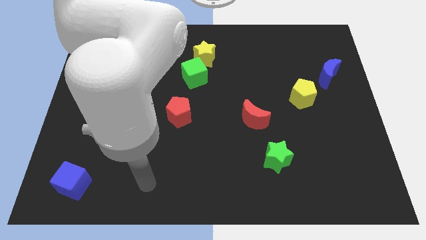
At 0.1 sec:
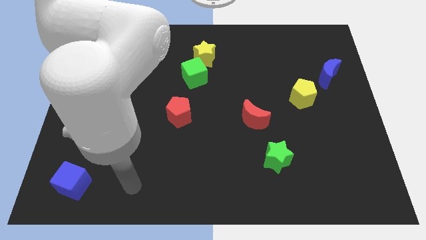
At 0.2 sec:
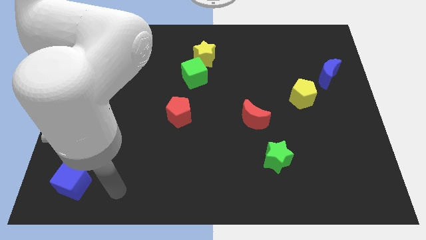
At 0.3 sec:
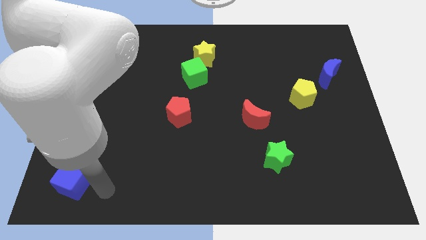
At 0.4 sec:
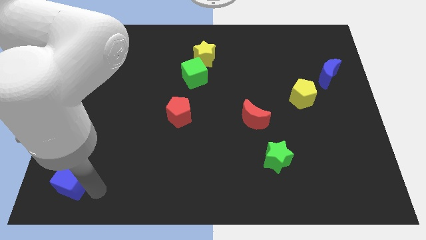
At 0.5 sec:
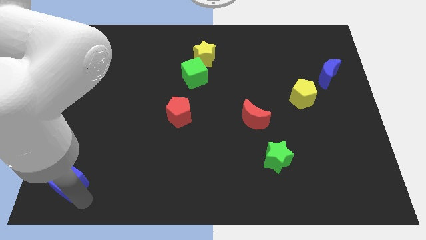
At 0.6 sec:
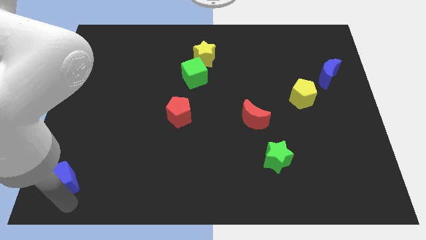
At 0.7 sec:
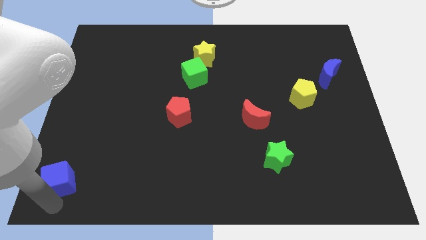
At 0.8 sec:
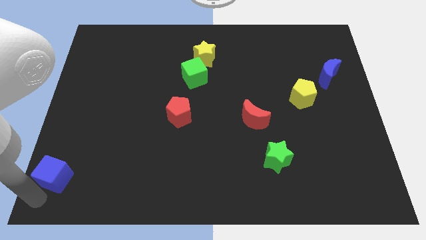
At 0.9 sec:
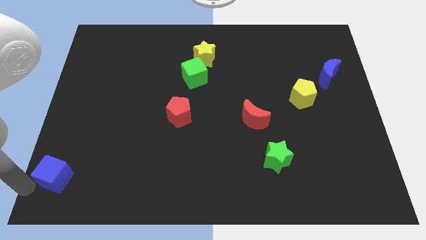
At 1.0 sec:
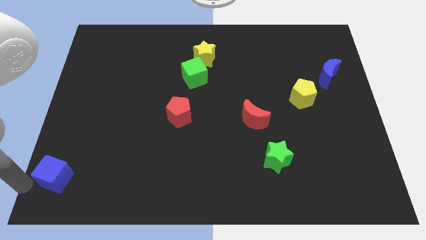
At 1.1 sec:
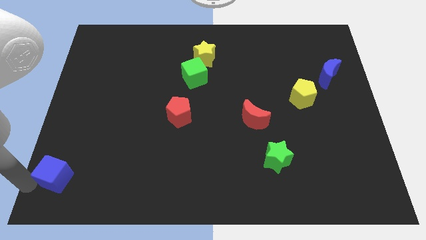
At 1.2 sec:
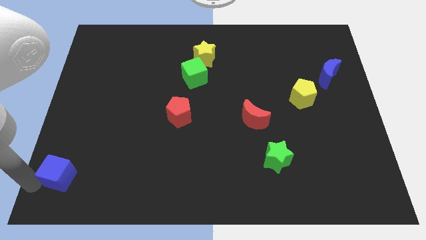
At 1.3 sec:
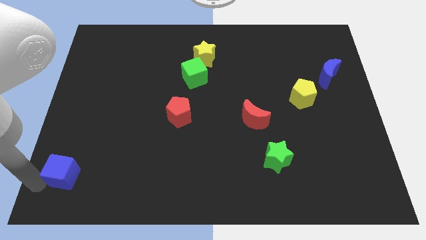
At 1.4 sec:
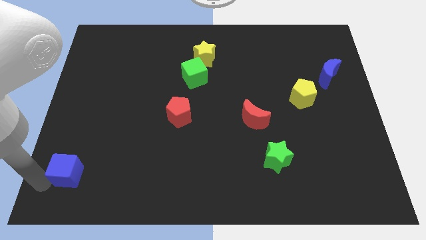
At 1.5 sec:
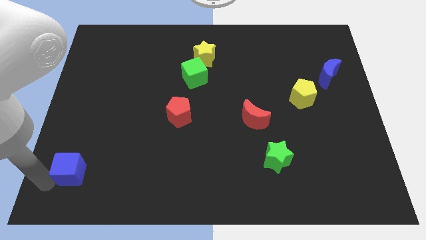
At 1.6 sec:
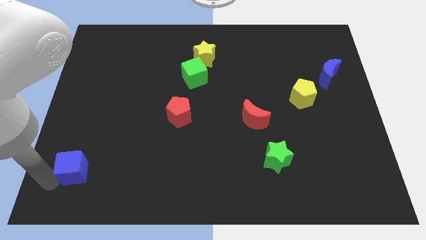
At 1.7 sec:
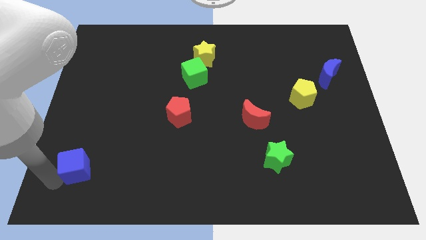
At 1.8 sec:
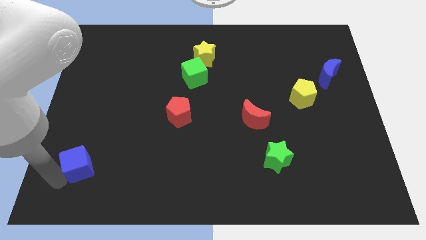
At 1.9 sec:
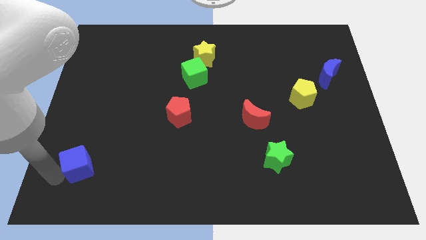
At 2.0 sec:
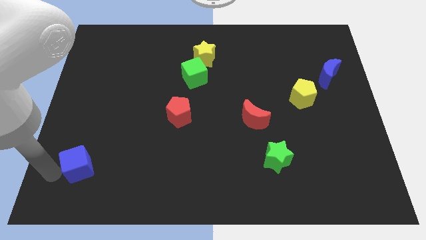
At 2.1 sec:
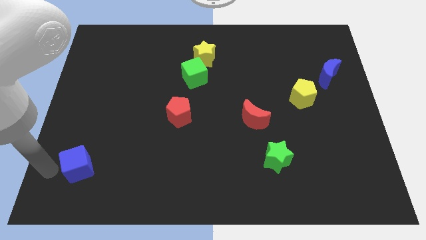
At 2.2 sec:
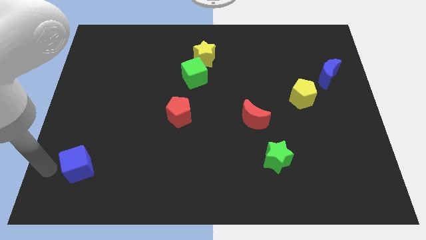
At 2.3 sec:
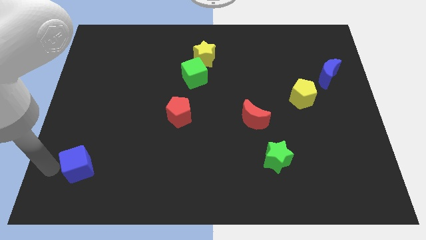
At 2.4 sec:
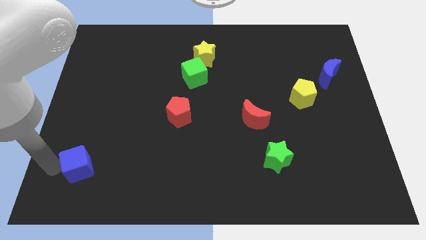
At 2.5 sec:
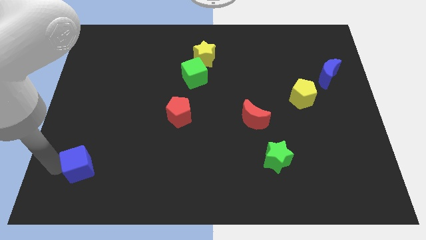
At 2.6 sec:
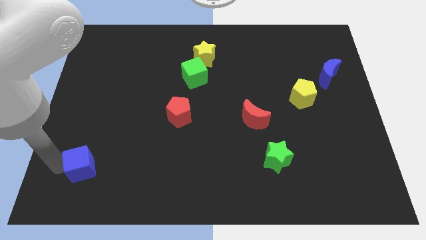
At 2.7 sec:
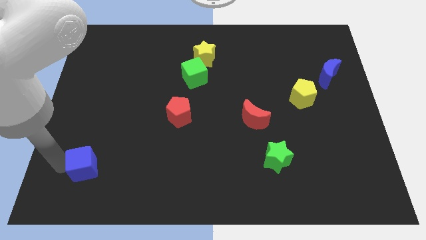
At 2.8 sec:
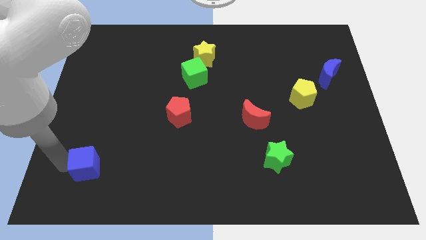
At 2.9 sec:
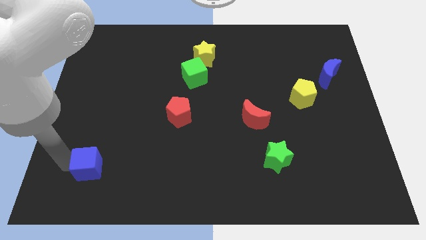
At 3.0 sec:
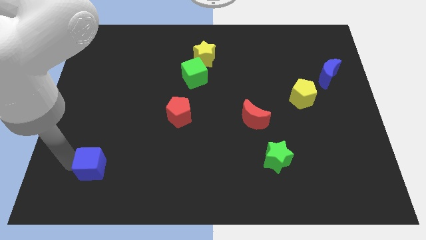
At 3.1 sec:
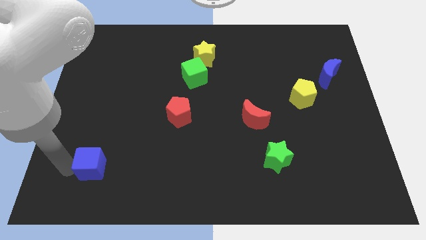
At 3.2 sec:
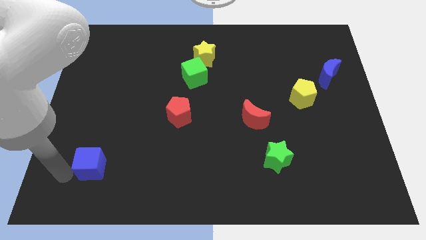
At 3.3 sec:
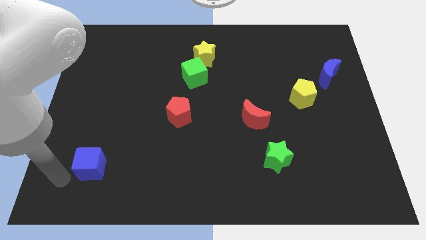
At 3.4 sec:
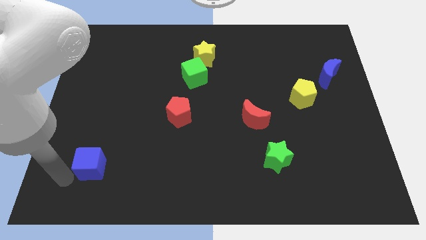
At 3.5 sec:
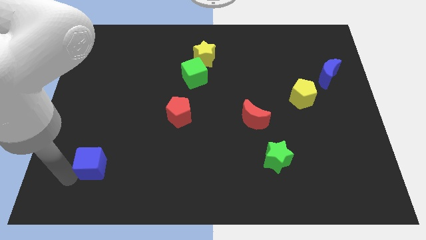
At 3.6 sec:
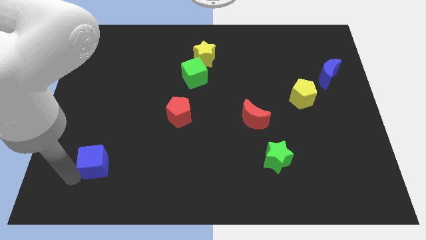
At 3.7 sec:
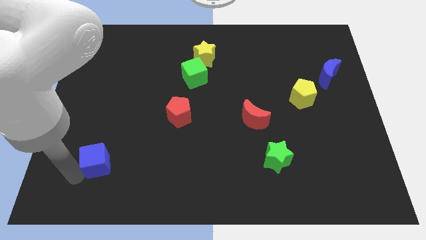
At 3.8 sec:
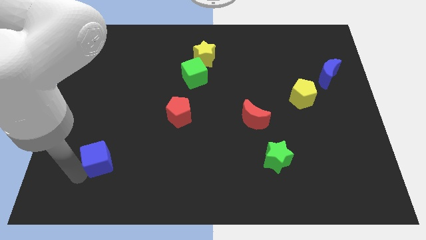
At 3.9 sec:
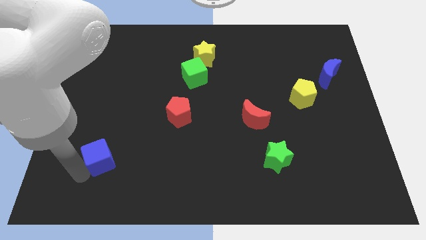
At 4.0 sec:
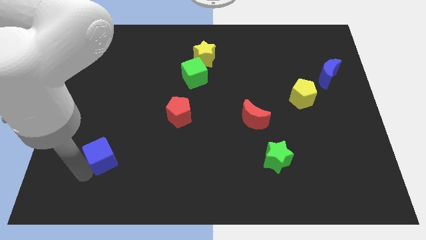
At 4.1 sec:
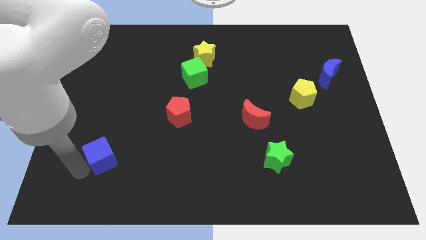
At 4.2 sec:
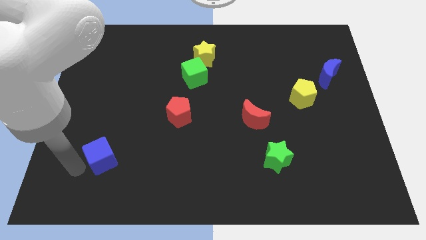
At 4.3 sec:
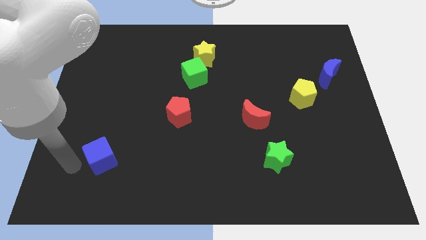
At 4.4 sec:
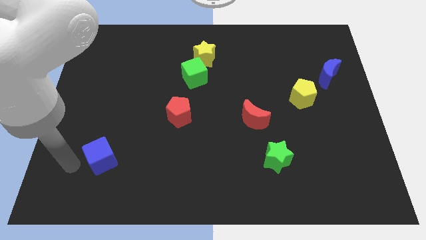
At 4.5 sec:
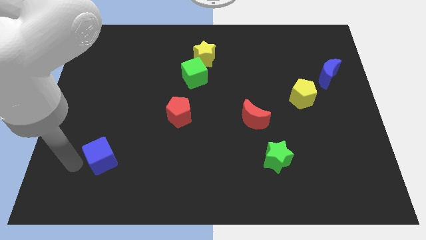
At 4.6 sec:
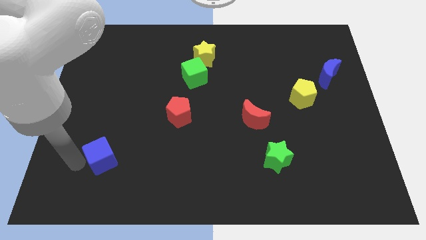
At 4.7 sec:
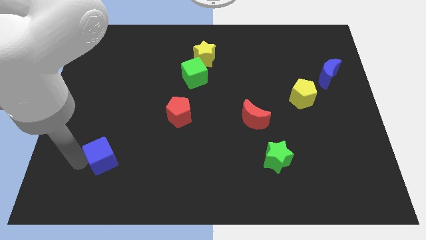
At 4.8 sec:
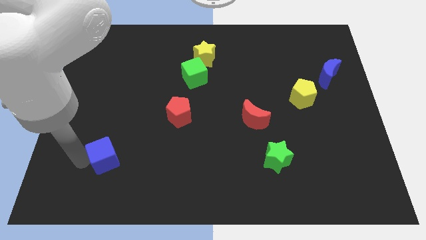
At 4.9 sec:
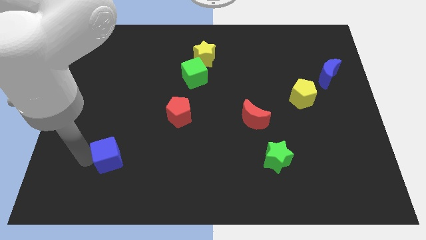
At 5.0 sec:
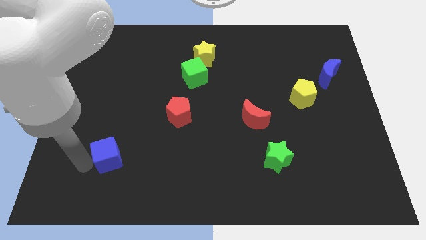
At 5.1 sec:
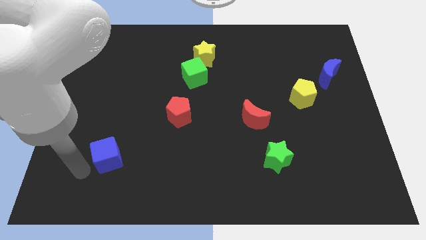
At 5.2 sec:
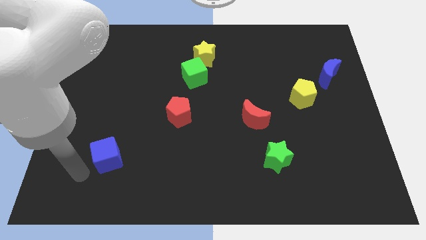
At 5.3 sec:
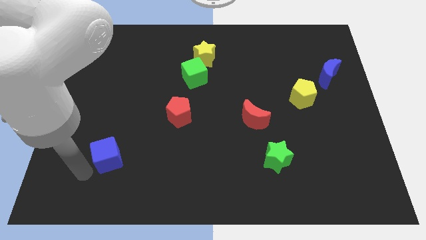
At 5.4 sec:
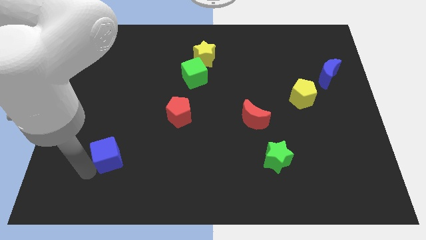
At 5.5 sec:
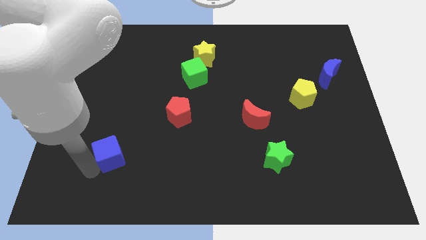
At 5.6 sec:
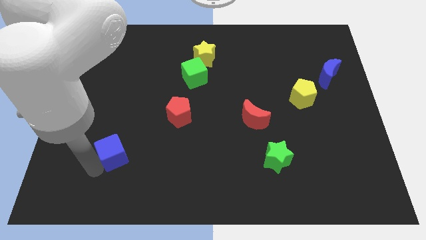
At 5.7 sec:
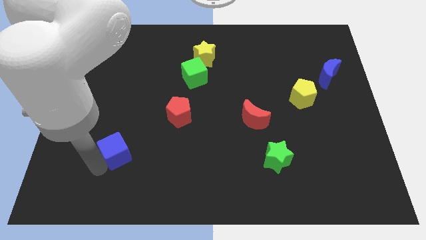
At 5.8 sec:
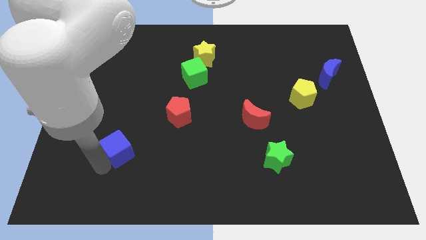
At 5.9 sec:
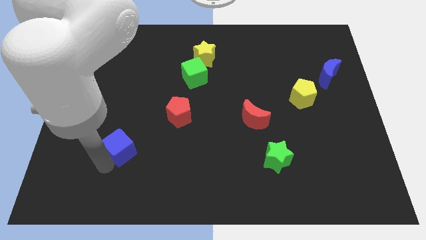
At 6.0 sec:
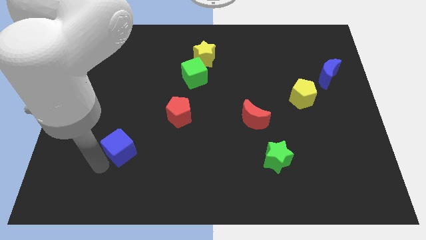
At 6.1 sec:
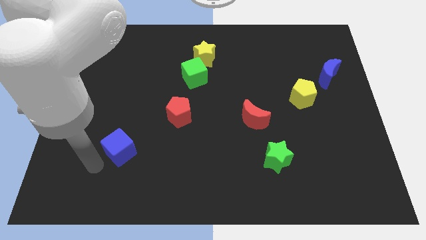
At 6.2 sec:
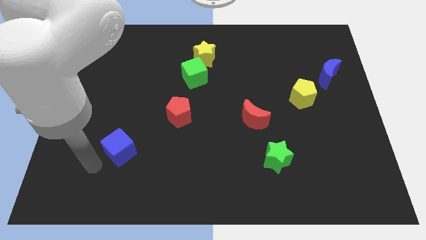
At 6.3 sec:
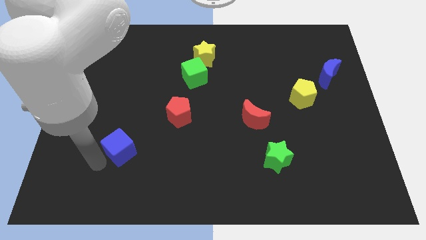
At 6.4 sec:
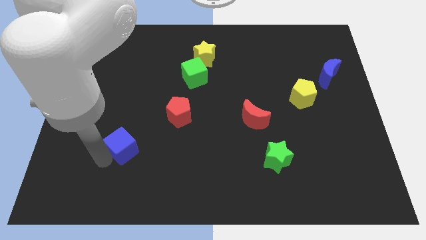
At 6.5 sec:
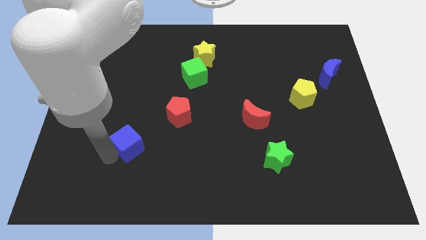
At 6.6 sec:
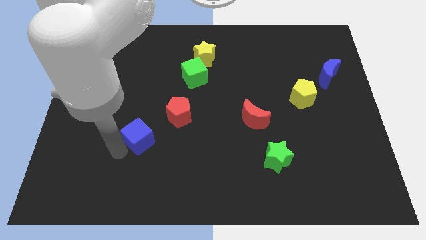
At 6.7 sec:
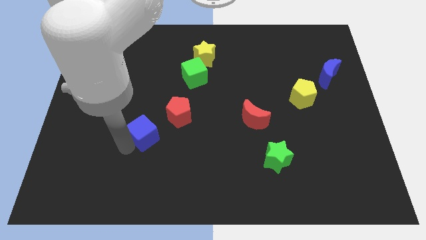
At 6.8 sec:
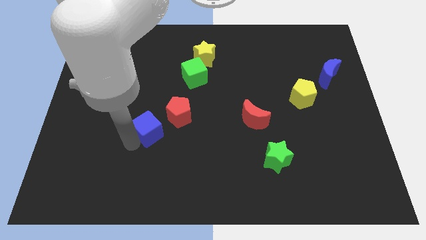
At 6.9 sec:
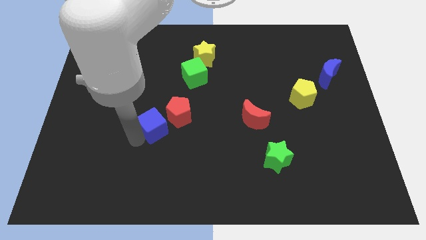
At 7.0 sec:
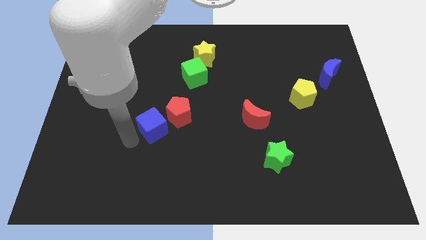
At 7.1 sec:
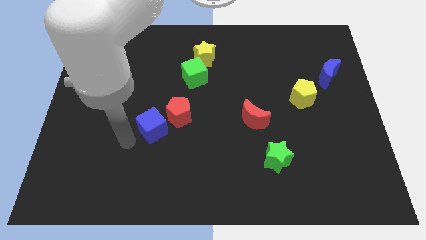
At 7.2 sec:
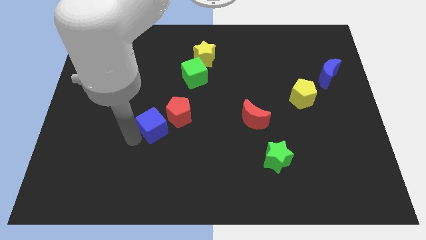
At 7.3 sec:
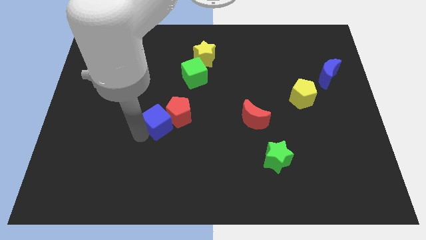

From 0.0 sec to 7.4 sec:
push the blue cube towards the red pentagon
